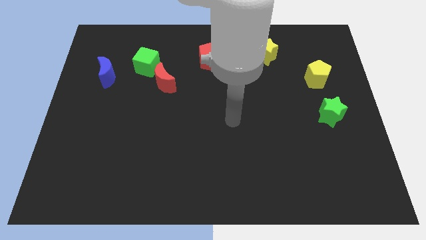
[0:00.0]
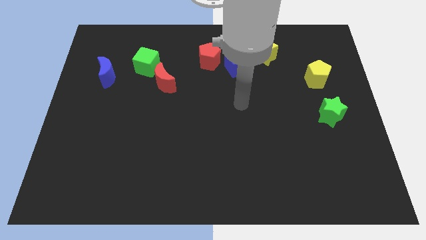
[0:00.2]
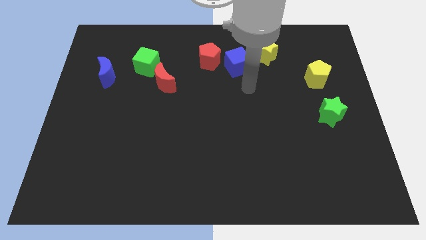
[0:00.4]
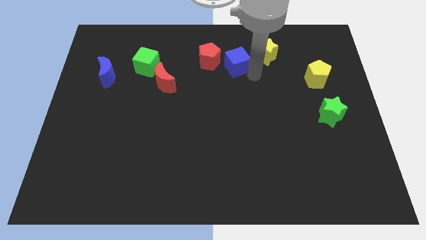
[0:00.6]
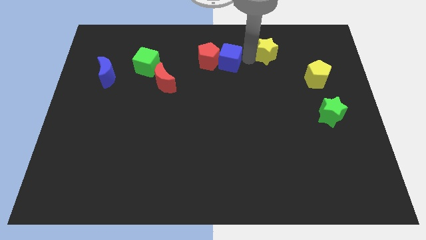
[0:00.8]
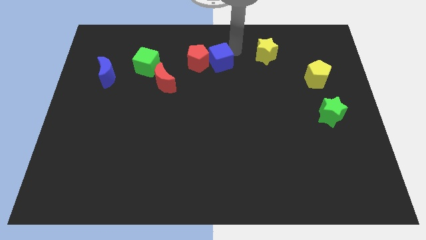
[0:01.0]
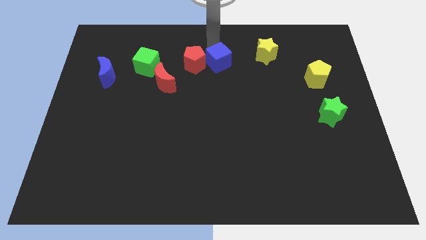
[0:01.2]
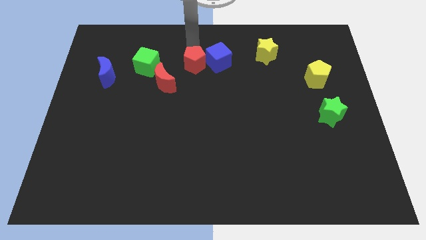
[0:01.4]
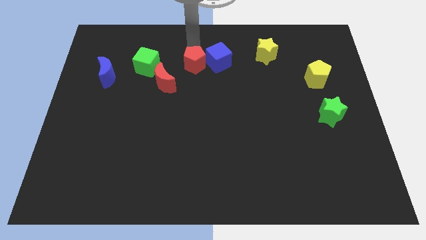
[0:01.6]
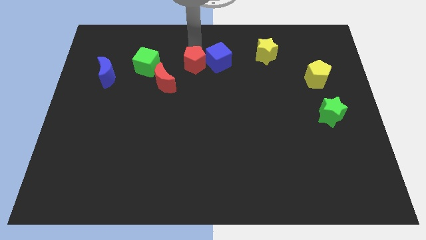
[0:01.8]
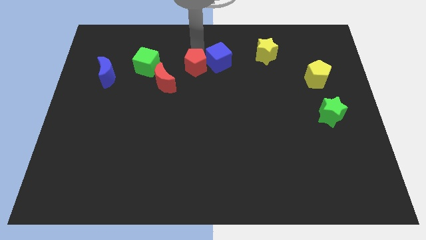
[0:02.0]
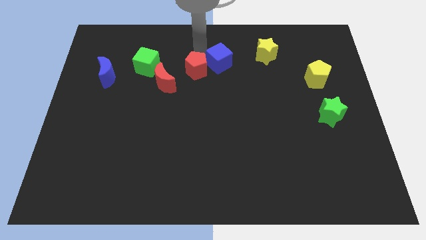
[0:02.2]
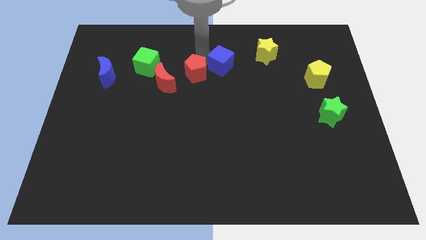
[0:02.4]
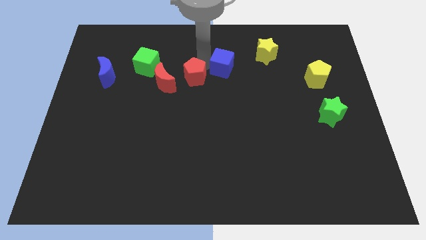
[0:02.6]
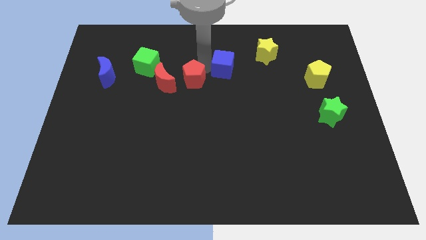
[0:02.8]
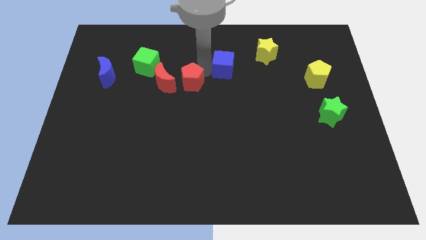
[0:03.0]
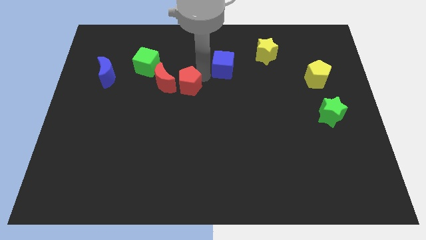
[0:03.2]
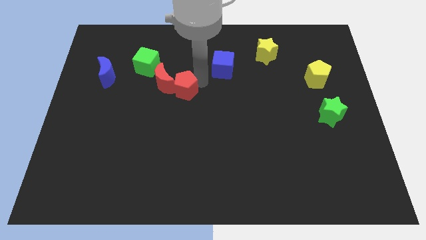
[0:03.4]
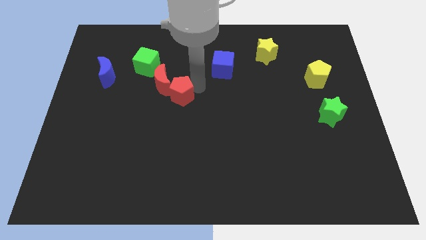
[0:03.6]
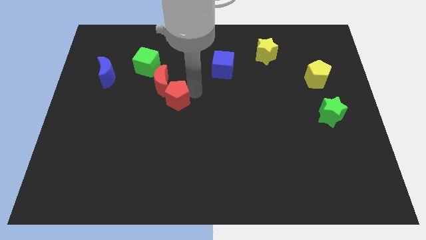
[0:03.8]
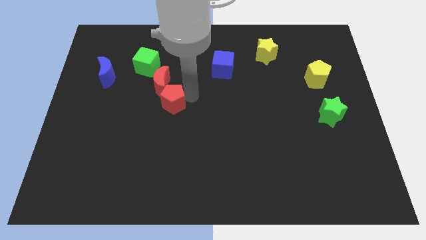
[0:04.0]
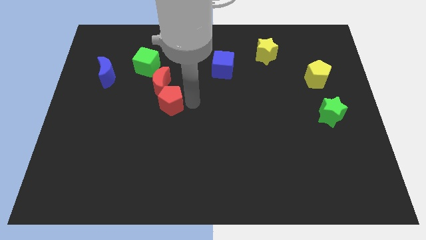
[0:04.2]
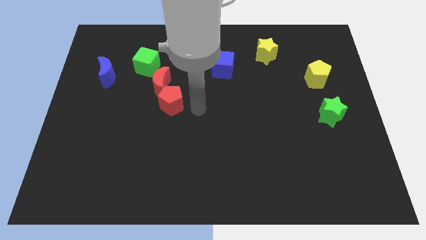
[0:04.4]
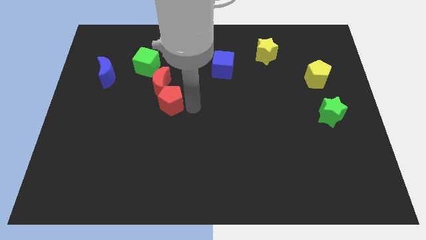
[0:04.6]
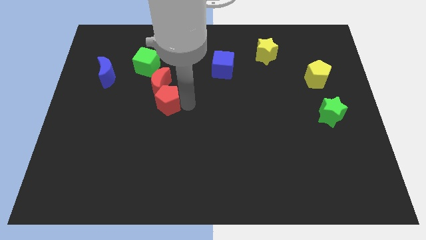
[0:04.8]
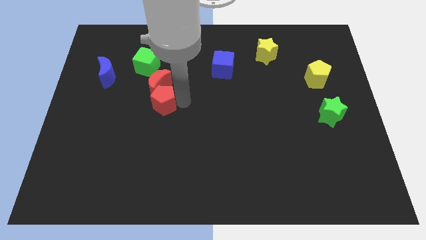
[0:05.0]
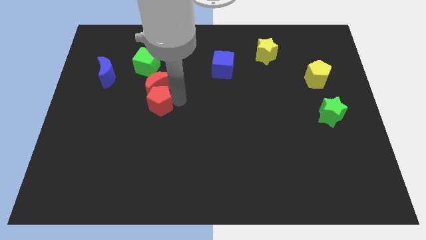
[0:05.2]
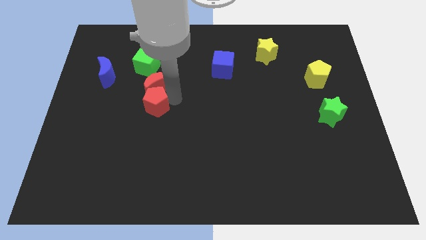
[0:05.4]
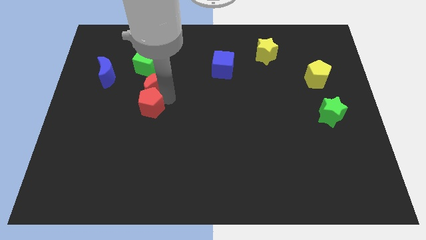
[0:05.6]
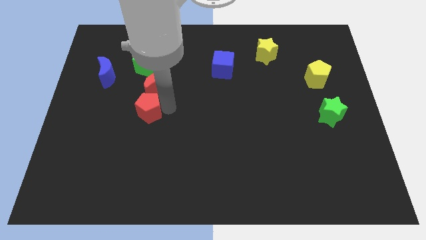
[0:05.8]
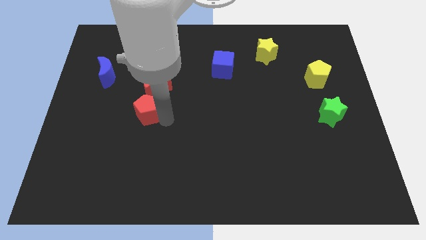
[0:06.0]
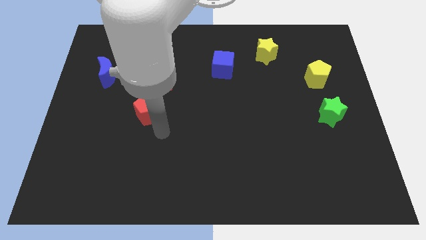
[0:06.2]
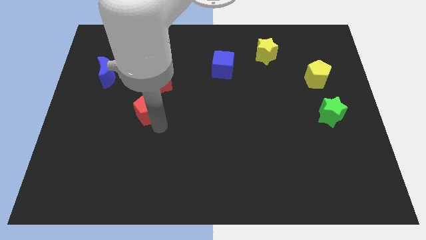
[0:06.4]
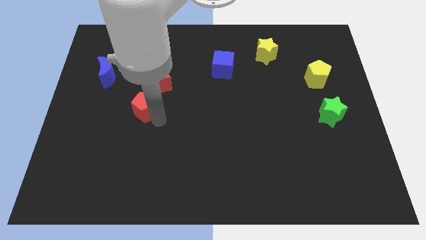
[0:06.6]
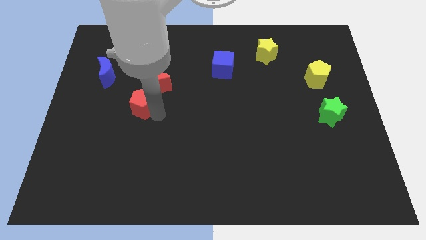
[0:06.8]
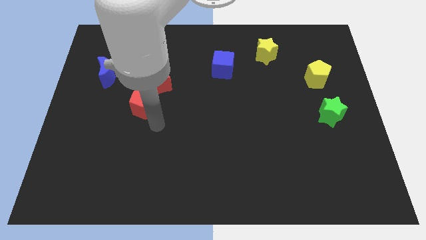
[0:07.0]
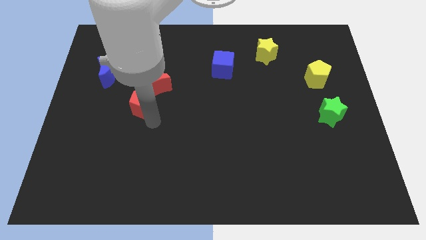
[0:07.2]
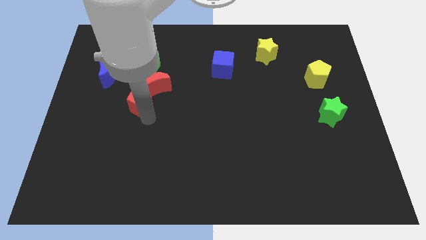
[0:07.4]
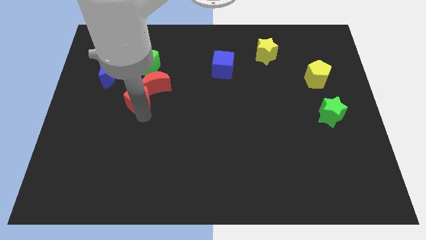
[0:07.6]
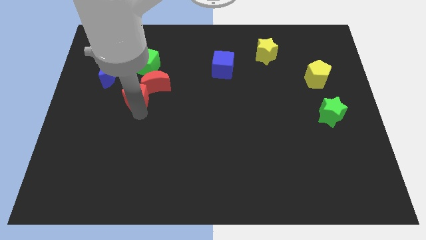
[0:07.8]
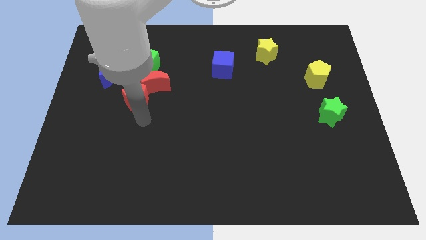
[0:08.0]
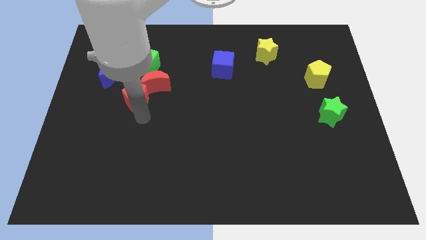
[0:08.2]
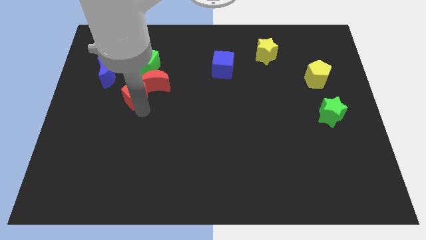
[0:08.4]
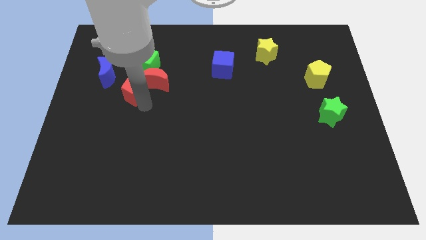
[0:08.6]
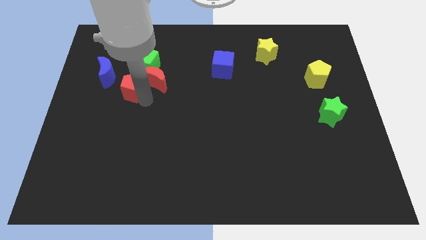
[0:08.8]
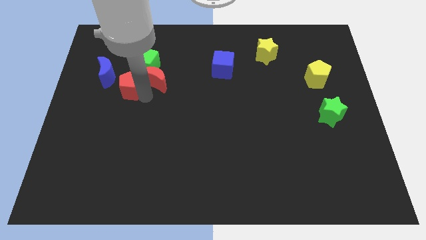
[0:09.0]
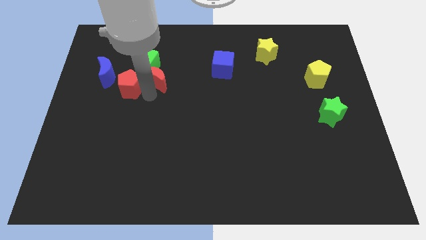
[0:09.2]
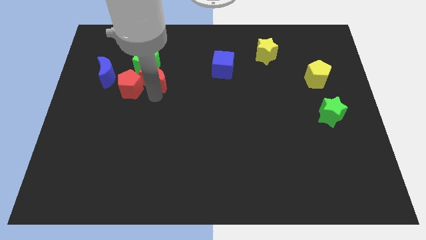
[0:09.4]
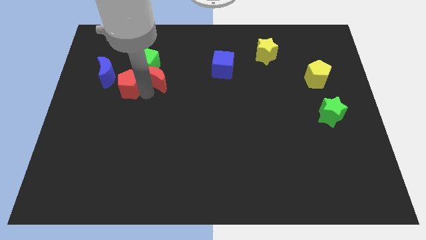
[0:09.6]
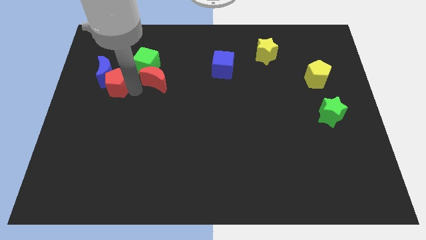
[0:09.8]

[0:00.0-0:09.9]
push the red pentagon next to the blue moon

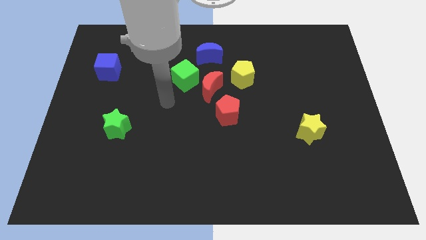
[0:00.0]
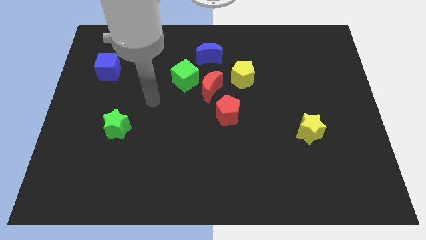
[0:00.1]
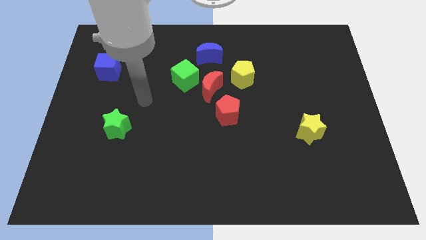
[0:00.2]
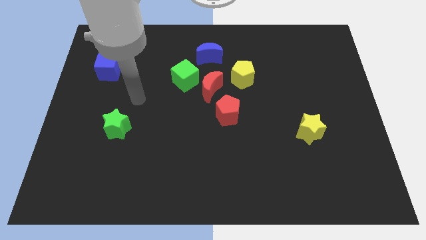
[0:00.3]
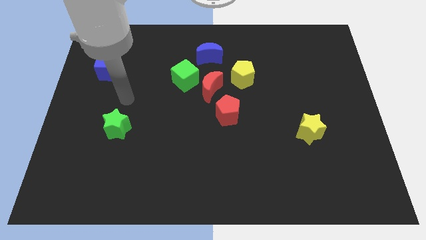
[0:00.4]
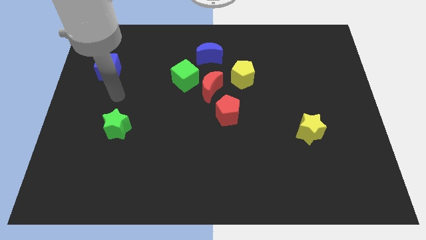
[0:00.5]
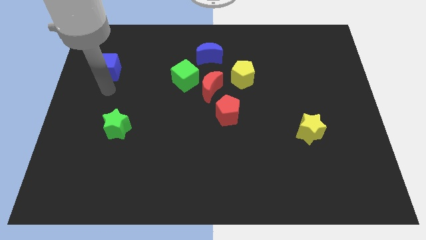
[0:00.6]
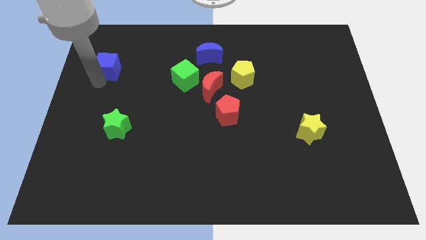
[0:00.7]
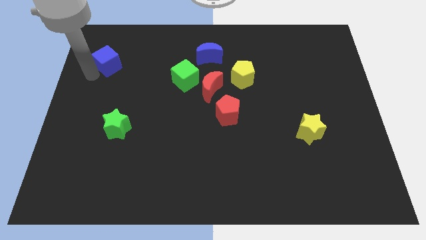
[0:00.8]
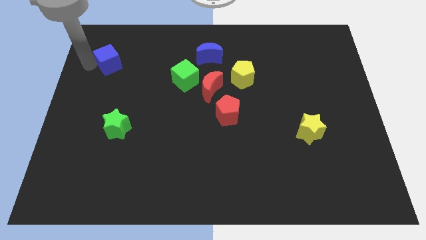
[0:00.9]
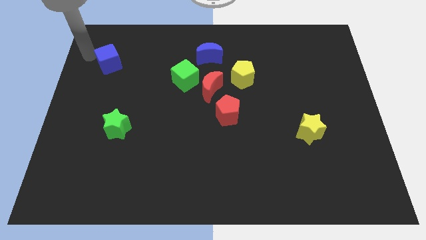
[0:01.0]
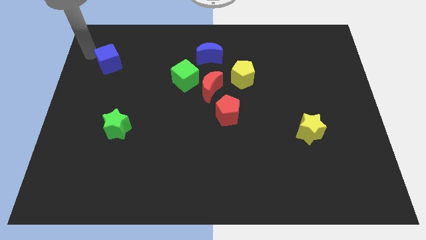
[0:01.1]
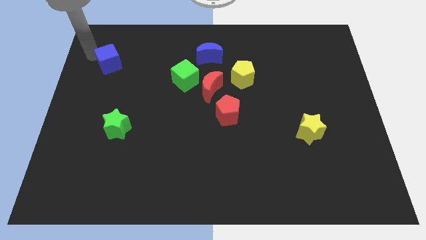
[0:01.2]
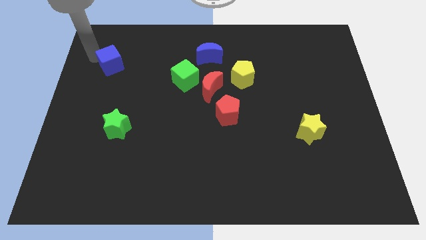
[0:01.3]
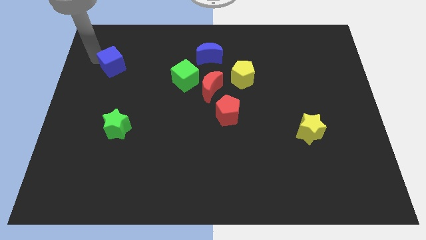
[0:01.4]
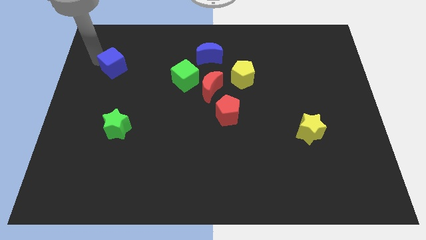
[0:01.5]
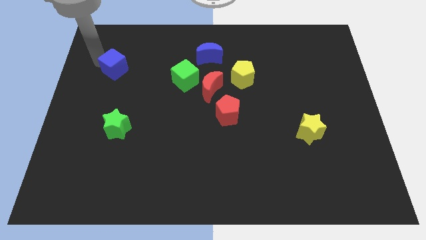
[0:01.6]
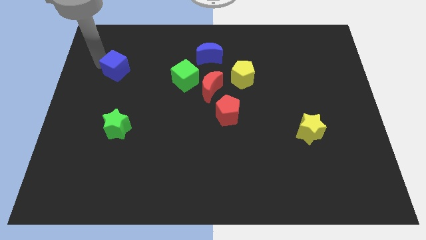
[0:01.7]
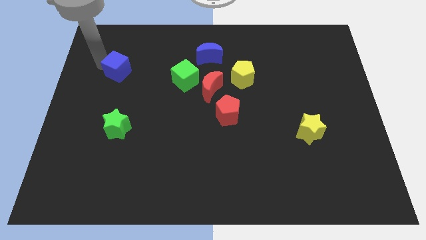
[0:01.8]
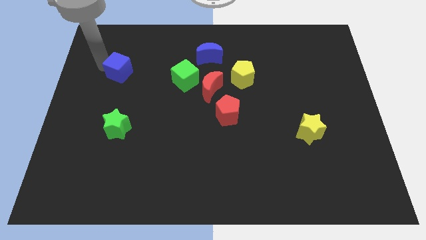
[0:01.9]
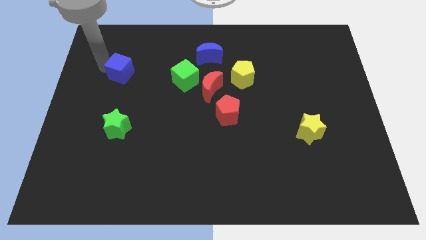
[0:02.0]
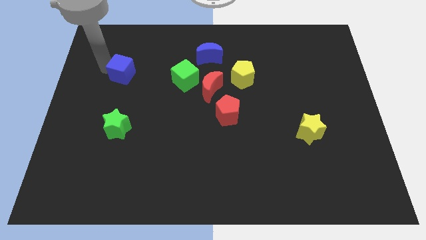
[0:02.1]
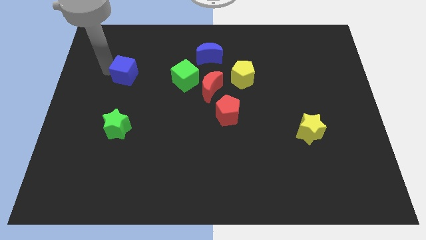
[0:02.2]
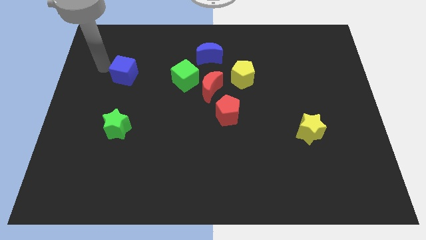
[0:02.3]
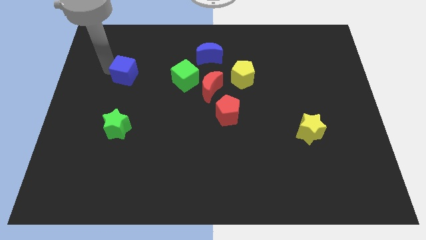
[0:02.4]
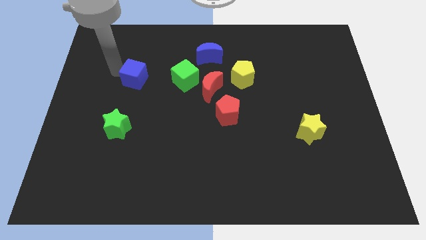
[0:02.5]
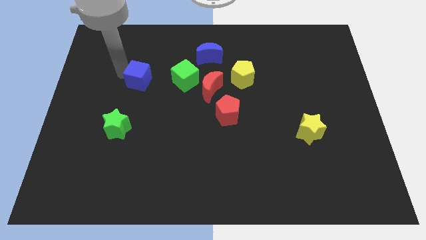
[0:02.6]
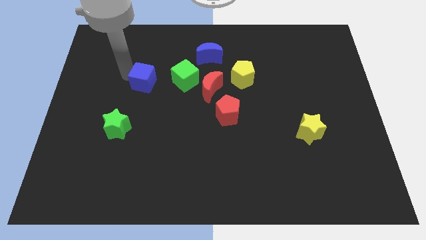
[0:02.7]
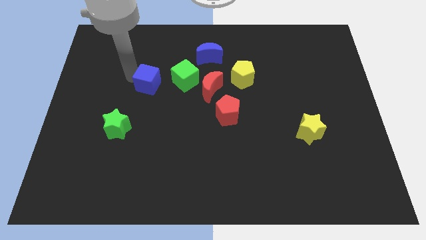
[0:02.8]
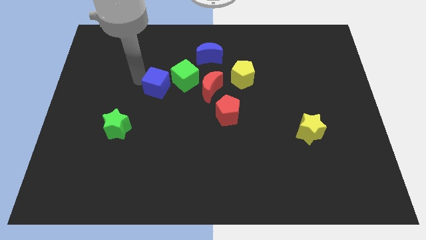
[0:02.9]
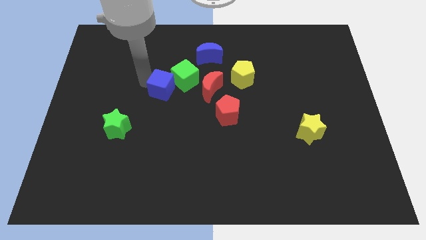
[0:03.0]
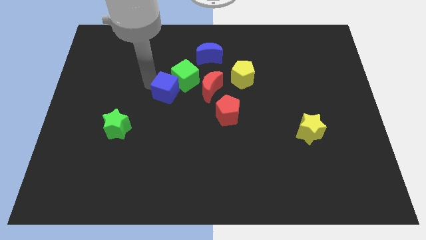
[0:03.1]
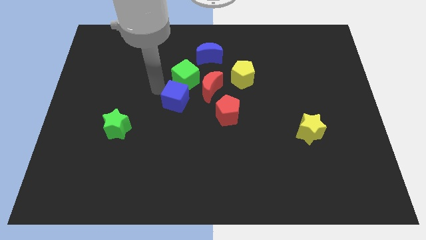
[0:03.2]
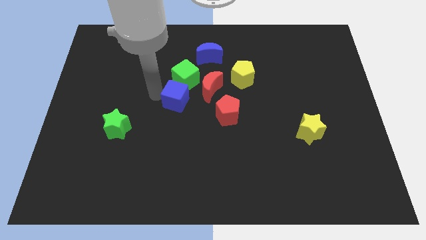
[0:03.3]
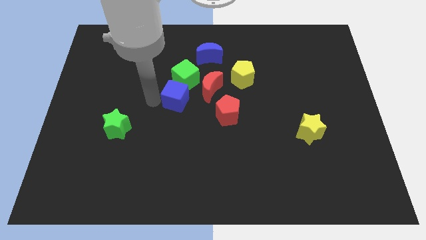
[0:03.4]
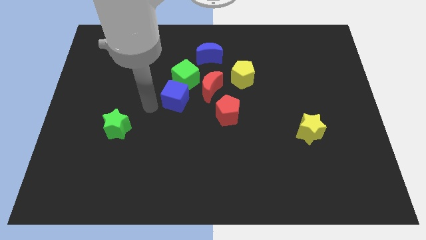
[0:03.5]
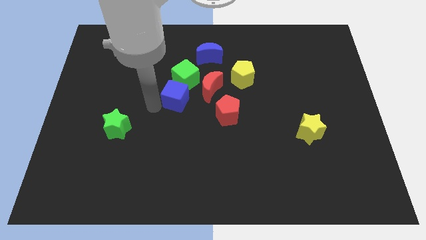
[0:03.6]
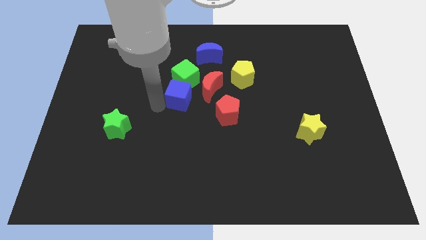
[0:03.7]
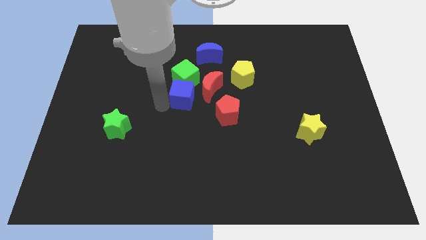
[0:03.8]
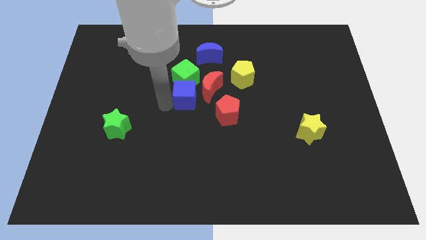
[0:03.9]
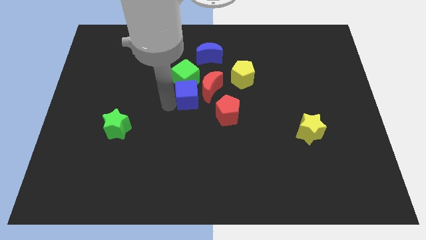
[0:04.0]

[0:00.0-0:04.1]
slide the blue cube to the red moon
